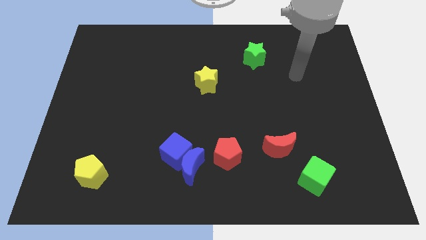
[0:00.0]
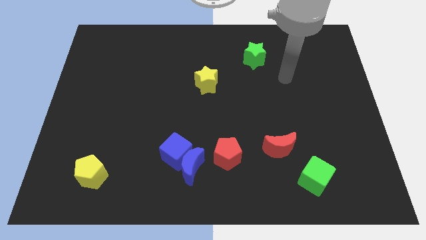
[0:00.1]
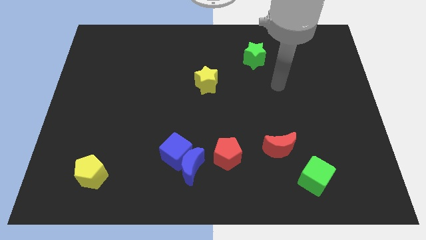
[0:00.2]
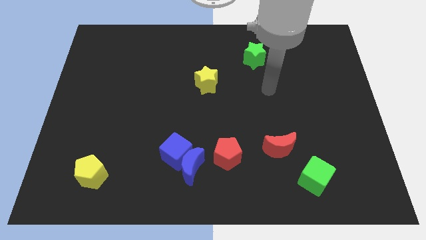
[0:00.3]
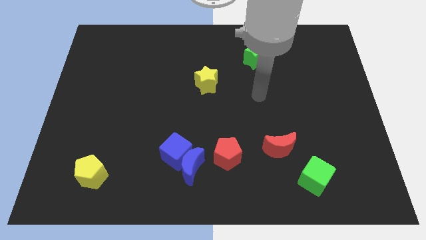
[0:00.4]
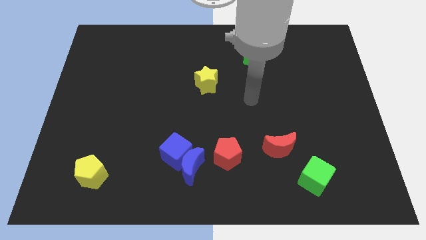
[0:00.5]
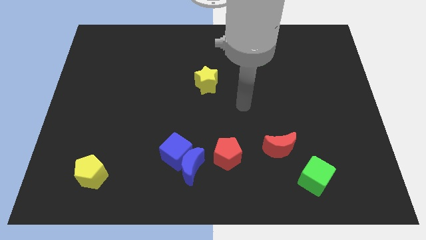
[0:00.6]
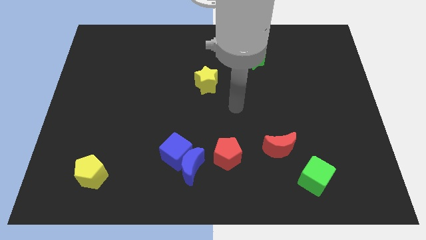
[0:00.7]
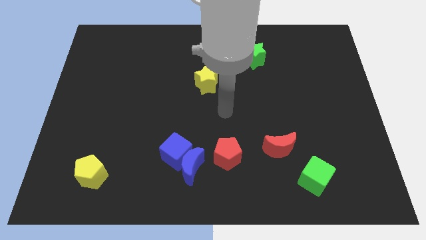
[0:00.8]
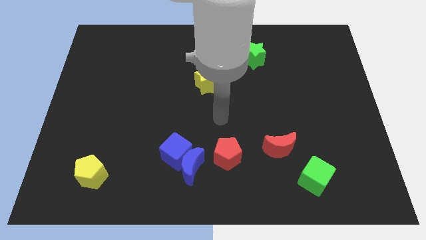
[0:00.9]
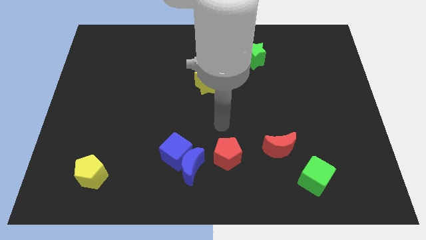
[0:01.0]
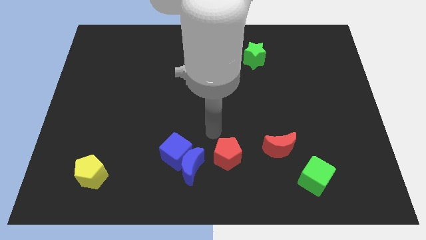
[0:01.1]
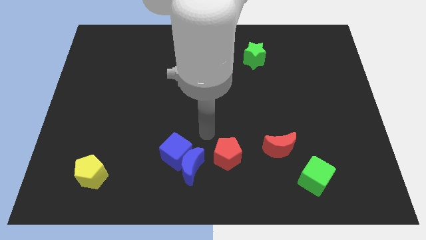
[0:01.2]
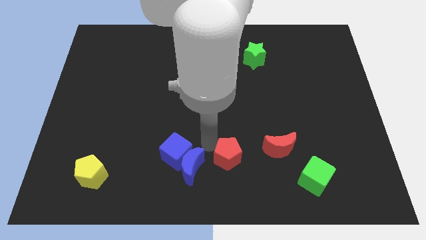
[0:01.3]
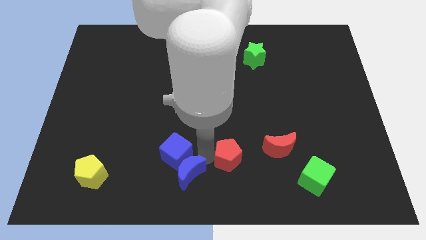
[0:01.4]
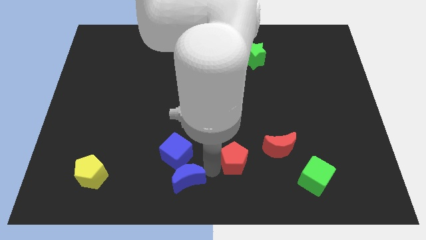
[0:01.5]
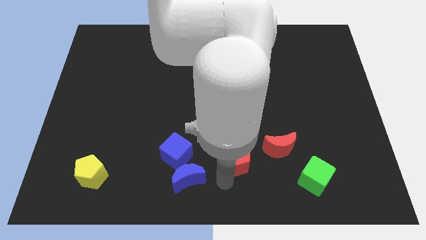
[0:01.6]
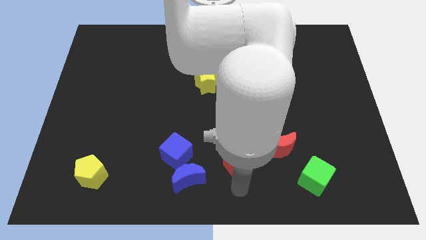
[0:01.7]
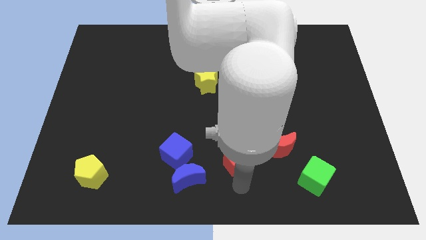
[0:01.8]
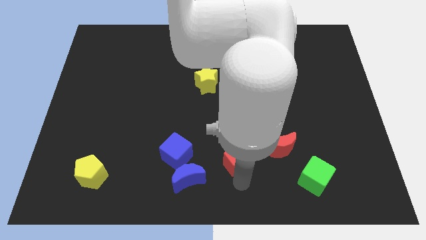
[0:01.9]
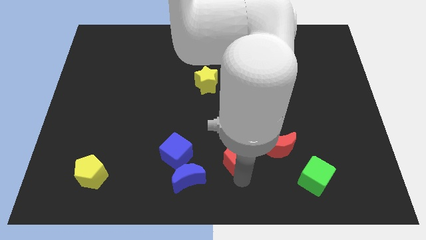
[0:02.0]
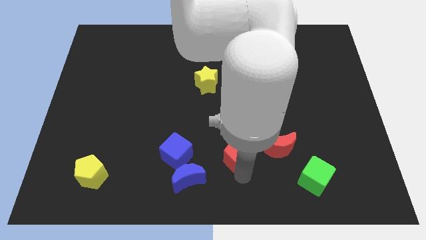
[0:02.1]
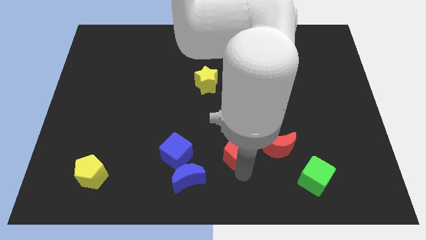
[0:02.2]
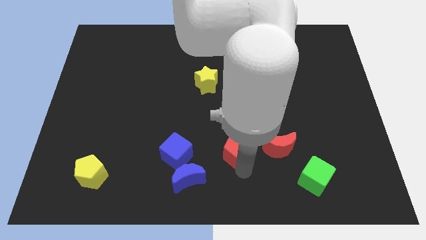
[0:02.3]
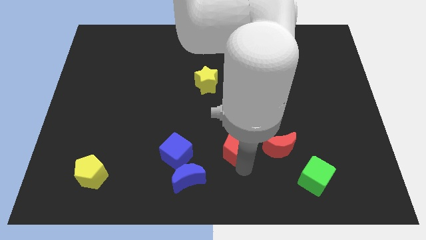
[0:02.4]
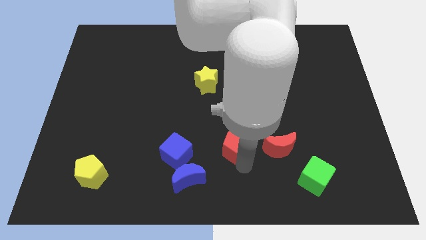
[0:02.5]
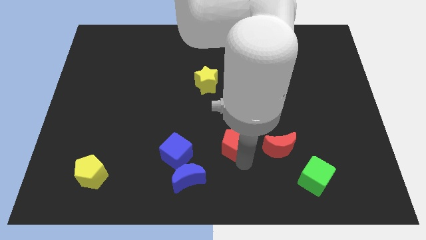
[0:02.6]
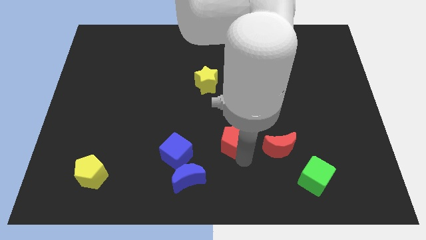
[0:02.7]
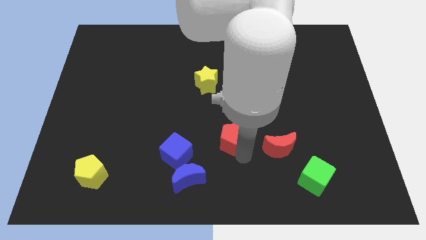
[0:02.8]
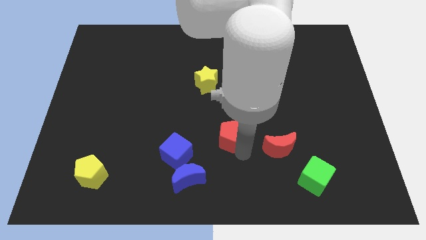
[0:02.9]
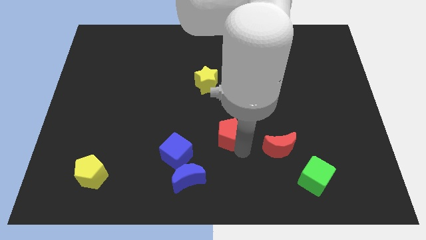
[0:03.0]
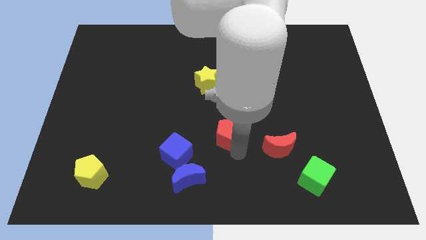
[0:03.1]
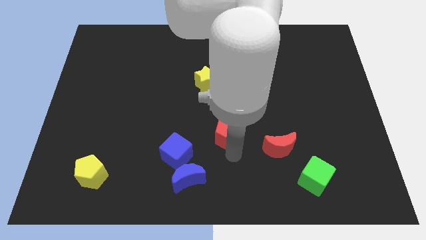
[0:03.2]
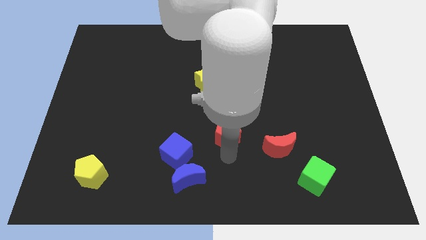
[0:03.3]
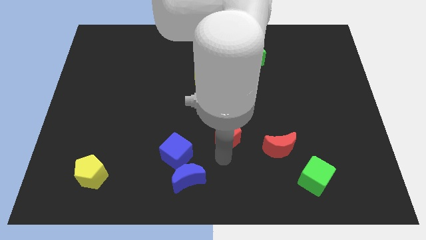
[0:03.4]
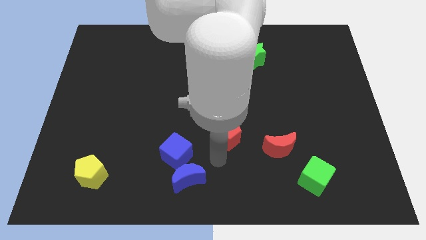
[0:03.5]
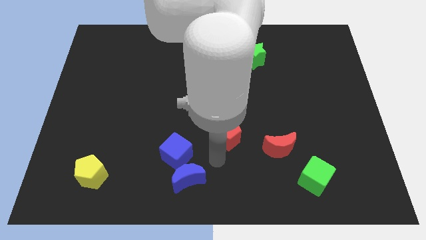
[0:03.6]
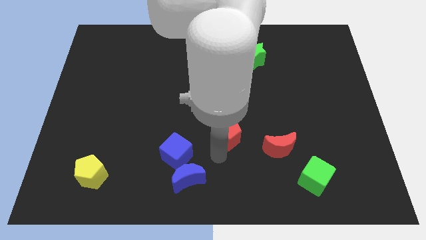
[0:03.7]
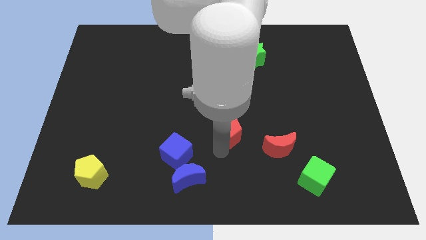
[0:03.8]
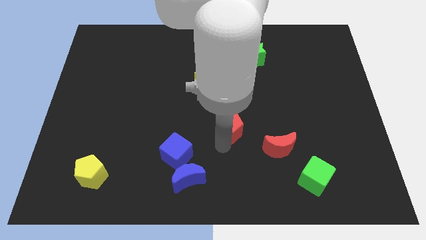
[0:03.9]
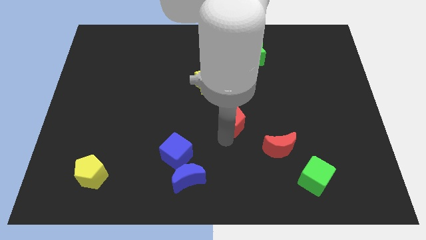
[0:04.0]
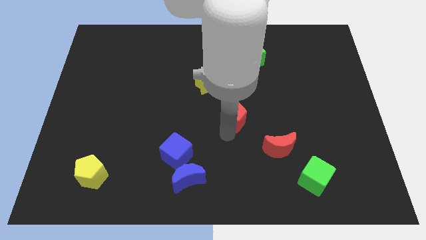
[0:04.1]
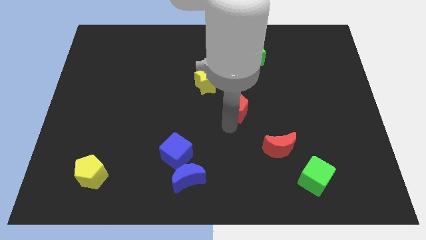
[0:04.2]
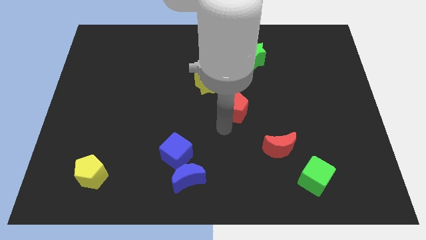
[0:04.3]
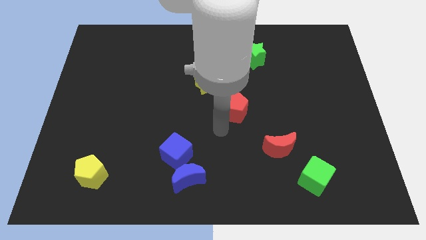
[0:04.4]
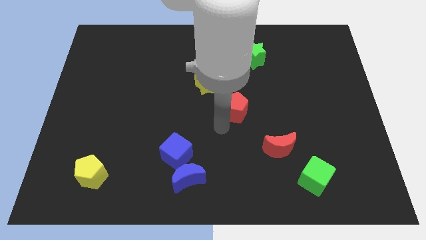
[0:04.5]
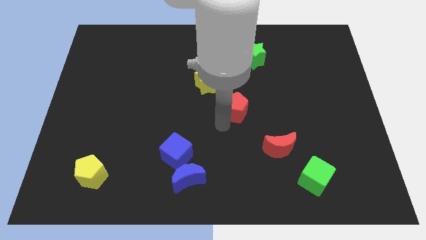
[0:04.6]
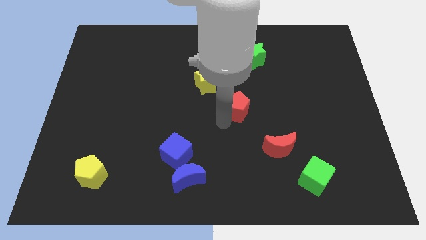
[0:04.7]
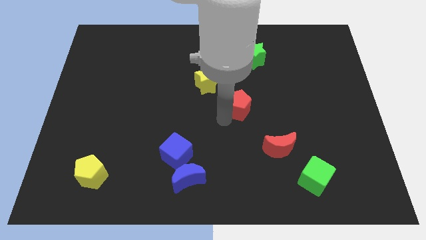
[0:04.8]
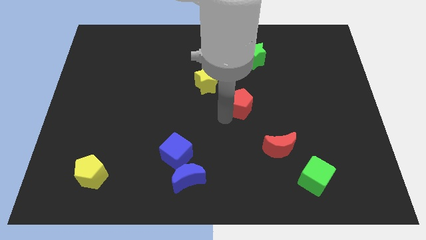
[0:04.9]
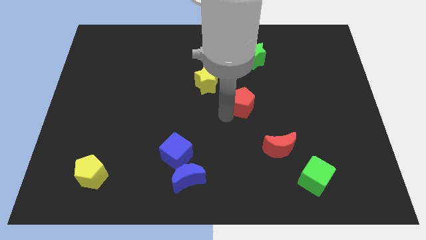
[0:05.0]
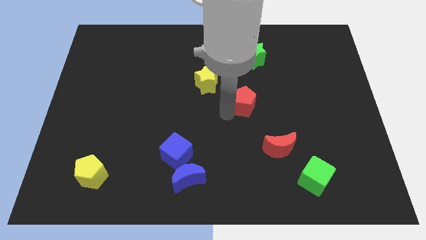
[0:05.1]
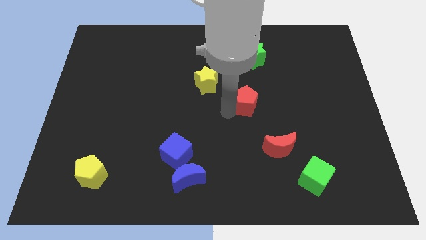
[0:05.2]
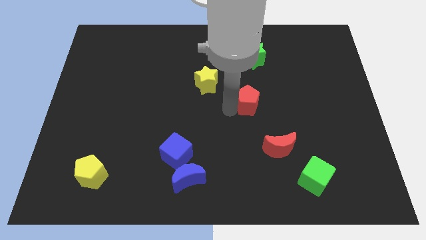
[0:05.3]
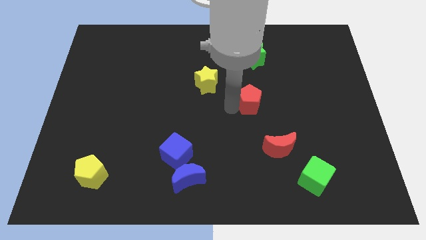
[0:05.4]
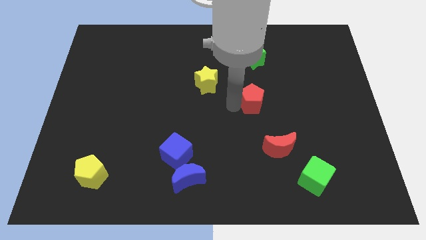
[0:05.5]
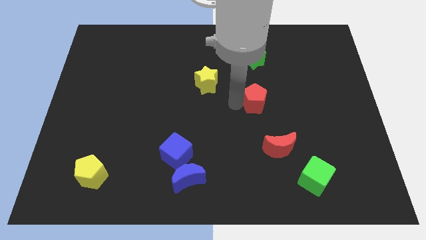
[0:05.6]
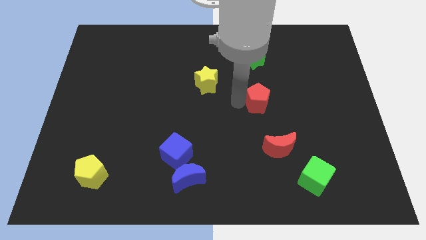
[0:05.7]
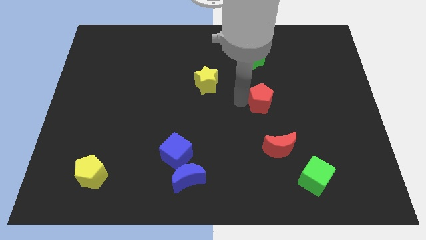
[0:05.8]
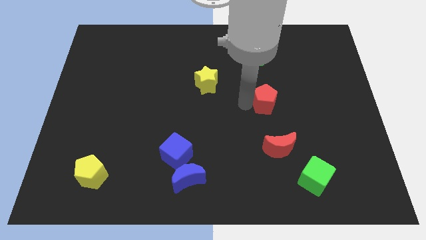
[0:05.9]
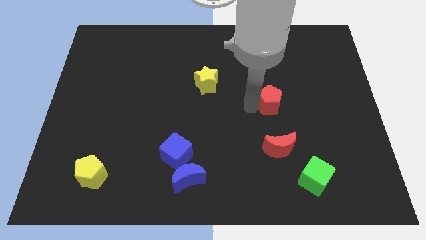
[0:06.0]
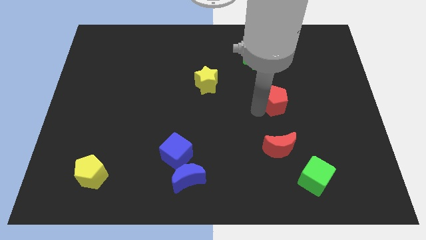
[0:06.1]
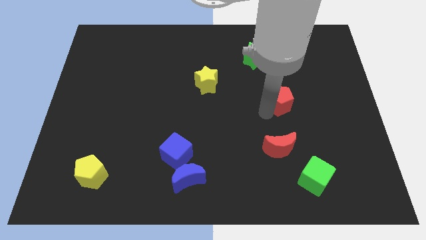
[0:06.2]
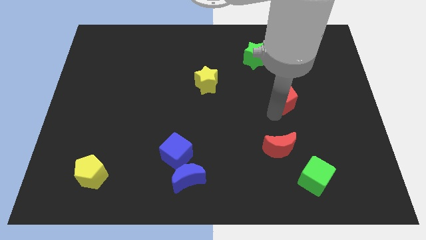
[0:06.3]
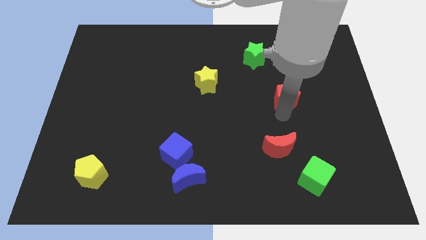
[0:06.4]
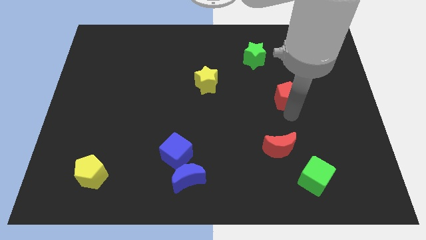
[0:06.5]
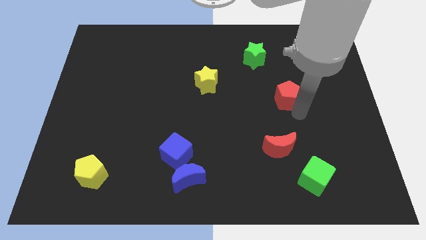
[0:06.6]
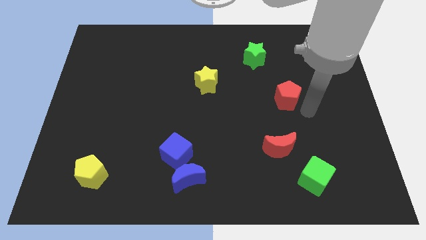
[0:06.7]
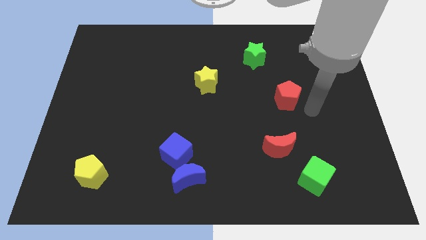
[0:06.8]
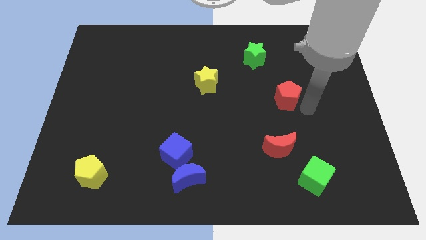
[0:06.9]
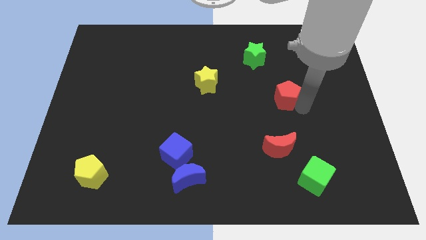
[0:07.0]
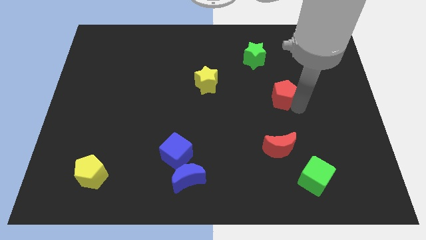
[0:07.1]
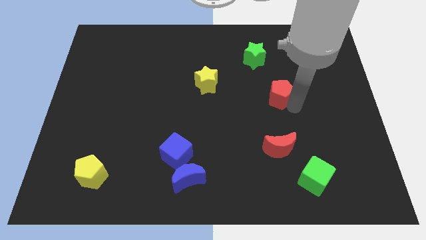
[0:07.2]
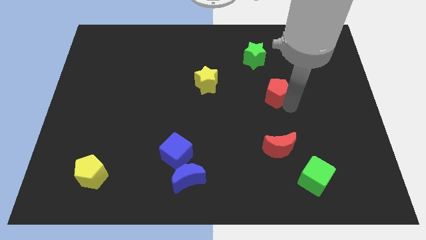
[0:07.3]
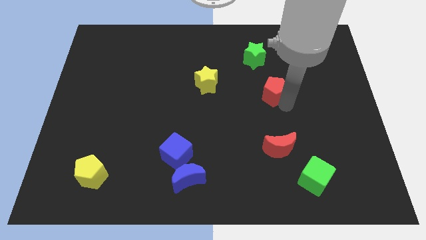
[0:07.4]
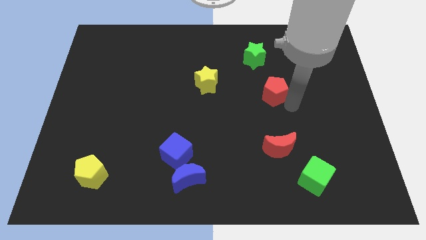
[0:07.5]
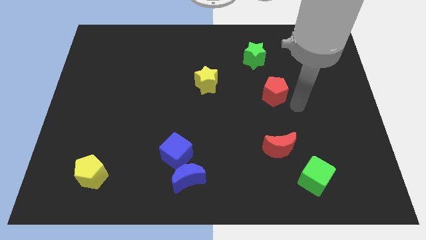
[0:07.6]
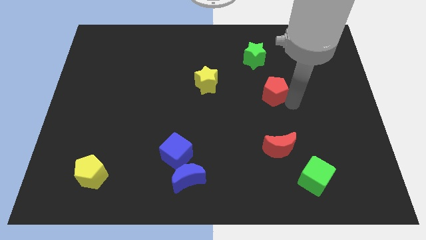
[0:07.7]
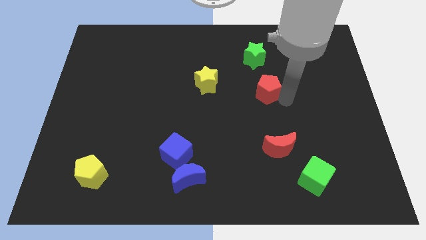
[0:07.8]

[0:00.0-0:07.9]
push the red pentagon to the right side of the yellow star
